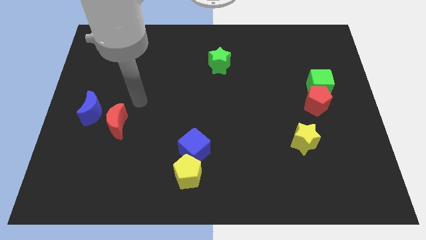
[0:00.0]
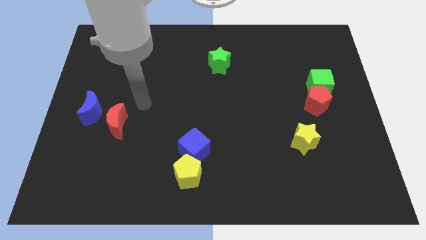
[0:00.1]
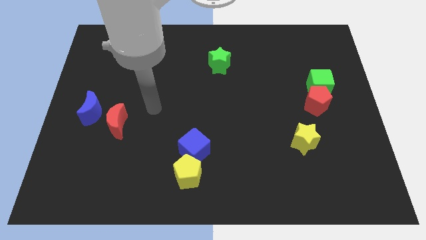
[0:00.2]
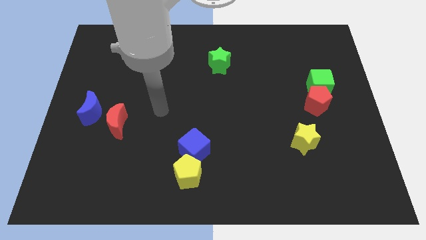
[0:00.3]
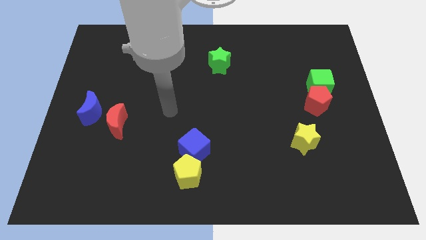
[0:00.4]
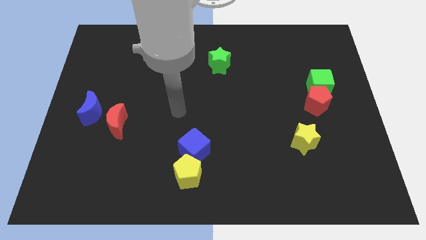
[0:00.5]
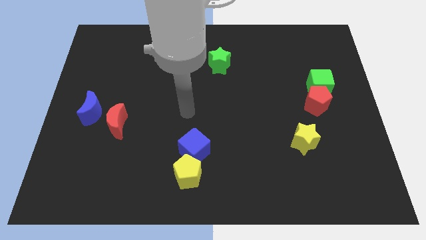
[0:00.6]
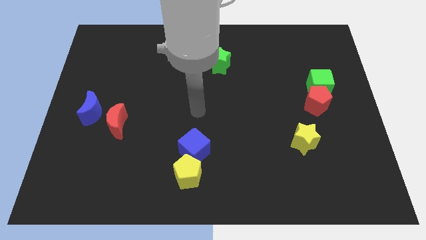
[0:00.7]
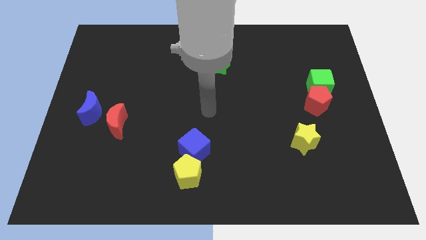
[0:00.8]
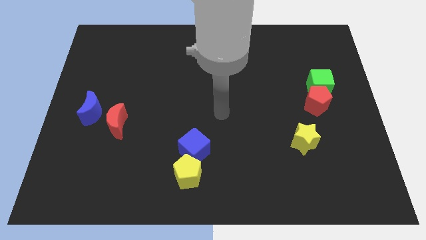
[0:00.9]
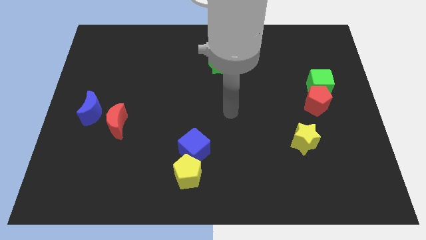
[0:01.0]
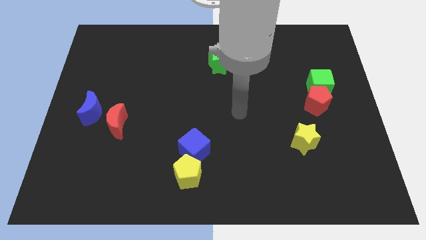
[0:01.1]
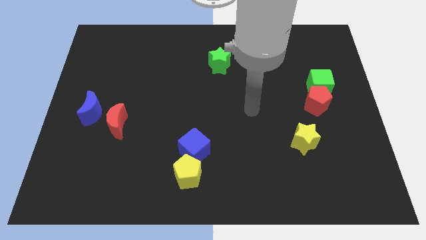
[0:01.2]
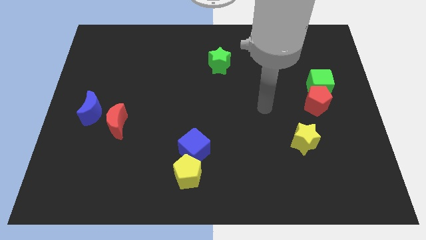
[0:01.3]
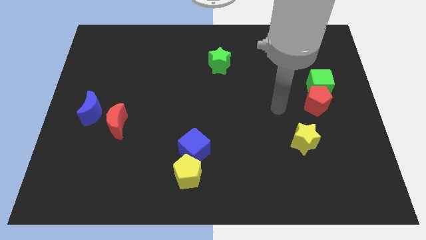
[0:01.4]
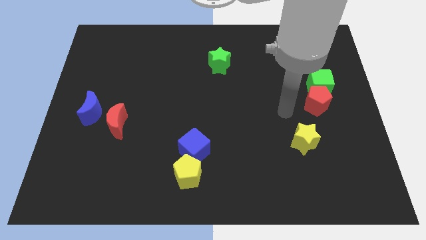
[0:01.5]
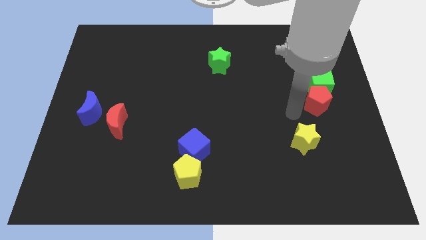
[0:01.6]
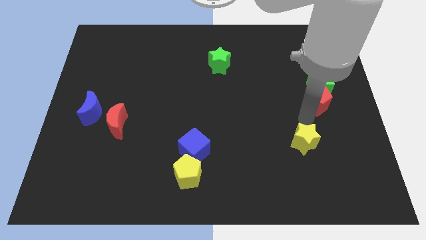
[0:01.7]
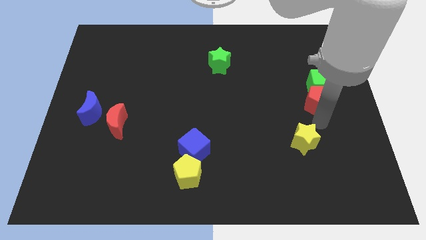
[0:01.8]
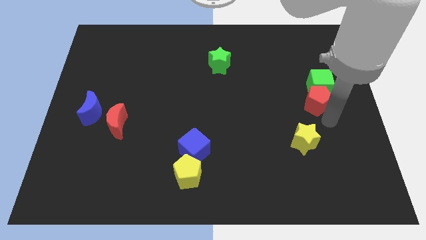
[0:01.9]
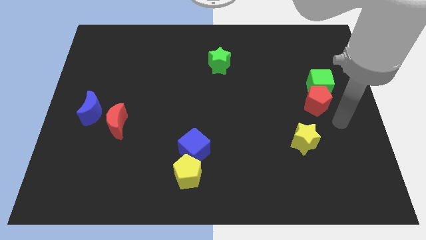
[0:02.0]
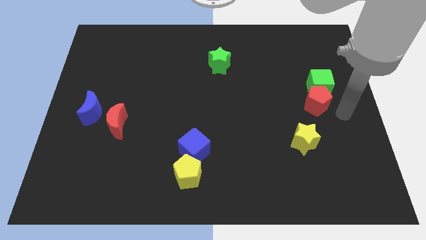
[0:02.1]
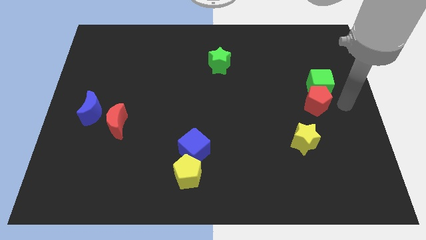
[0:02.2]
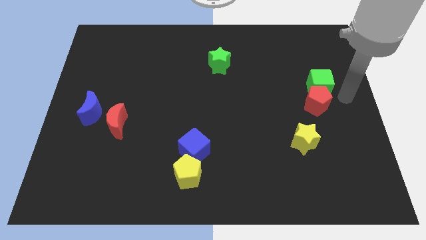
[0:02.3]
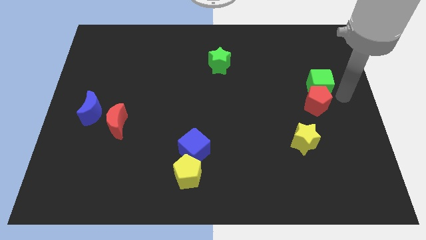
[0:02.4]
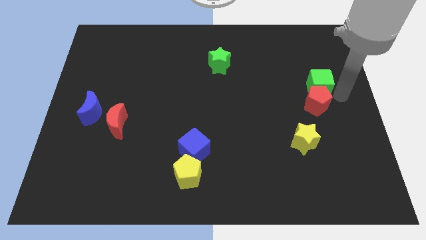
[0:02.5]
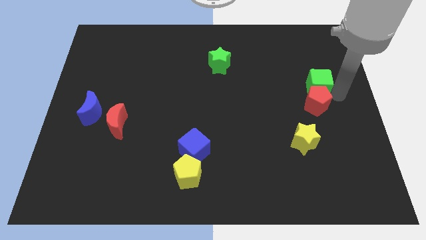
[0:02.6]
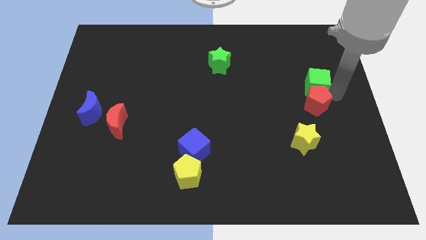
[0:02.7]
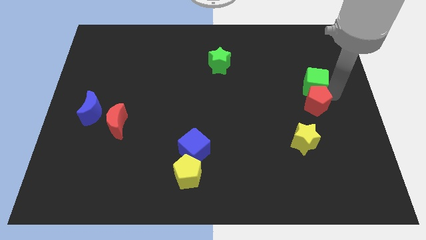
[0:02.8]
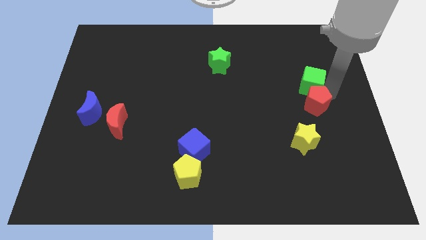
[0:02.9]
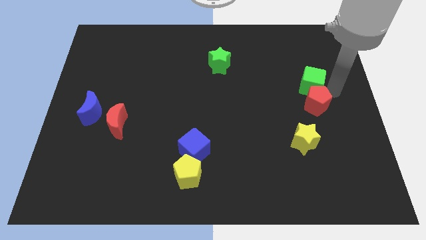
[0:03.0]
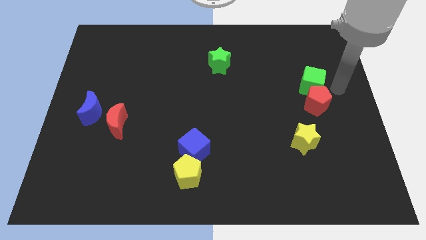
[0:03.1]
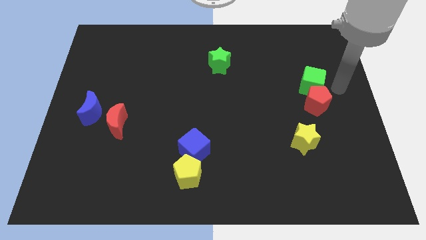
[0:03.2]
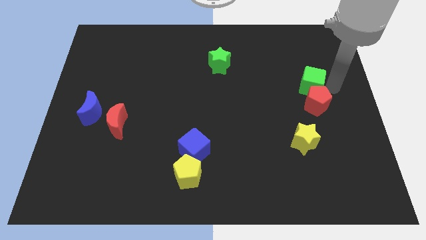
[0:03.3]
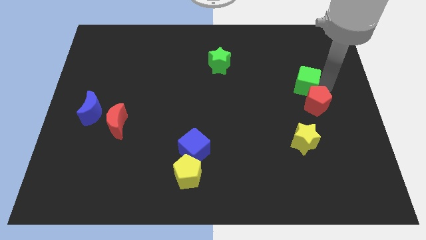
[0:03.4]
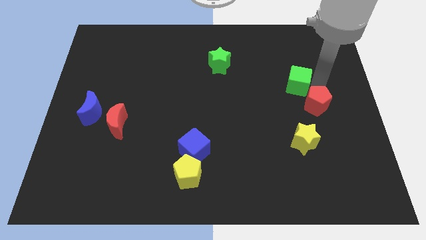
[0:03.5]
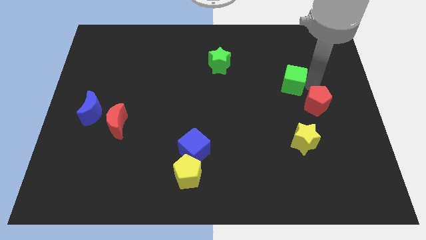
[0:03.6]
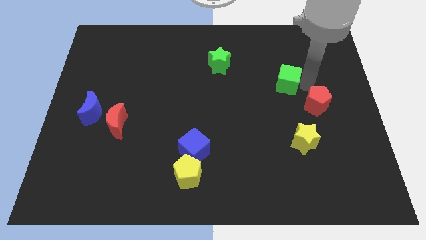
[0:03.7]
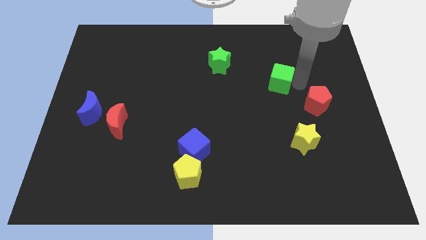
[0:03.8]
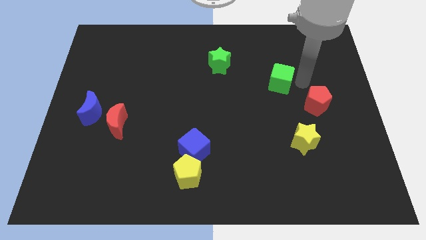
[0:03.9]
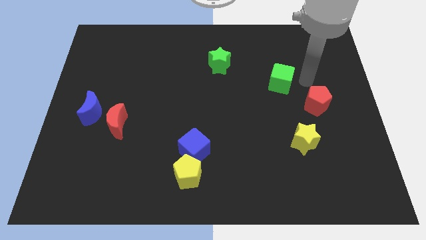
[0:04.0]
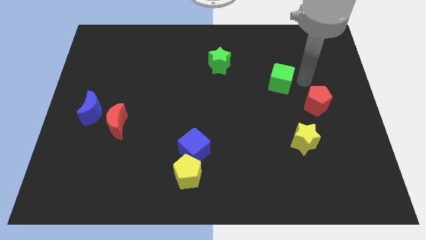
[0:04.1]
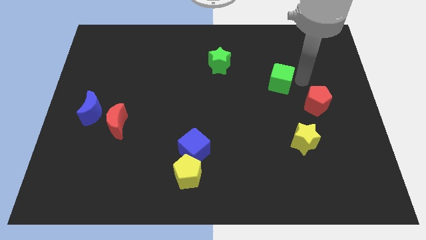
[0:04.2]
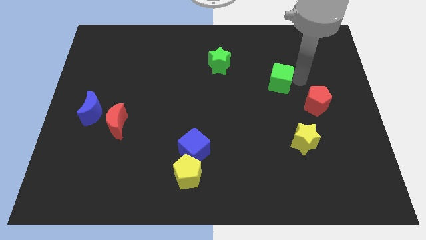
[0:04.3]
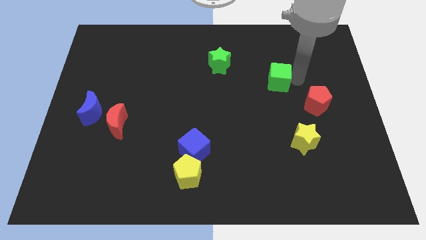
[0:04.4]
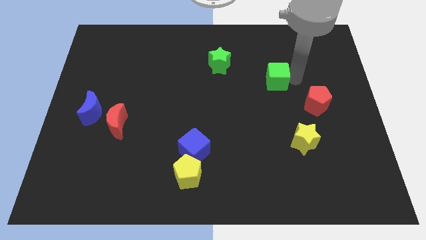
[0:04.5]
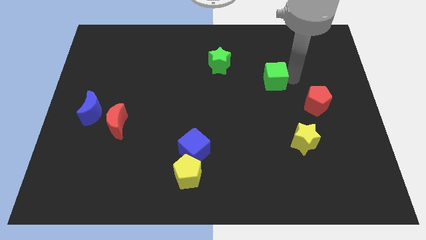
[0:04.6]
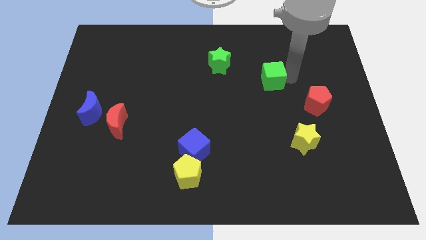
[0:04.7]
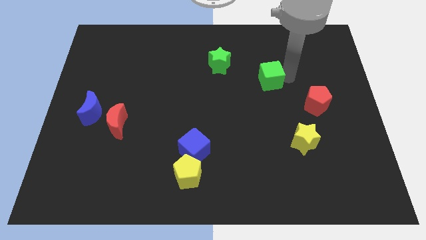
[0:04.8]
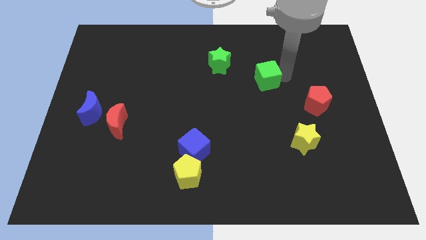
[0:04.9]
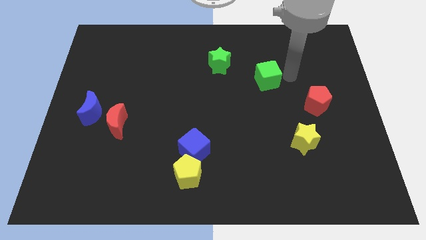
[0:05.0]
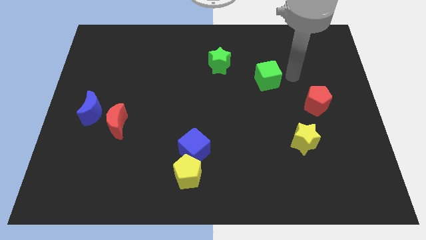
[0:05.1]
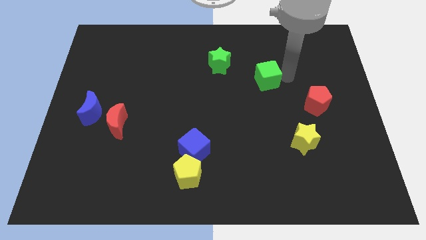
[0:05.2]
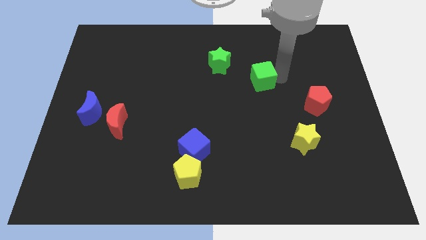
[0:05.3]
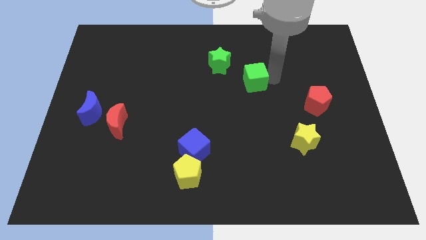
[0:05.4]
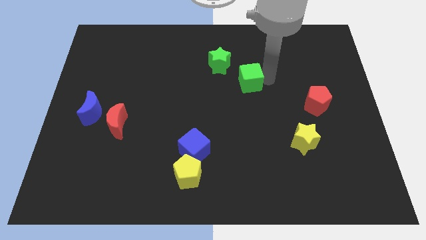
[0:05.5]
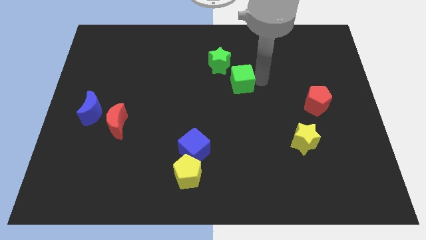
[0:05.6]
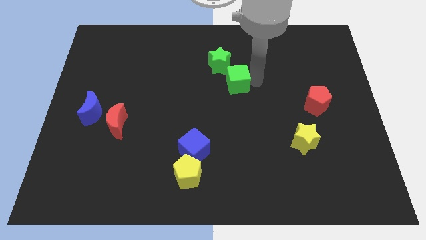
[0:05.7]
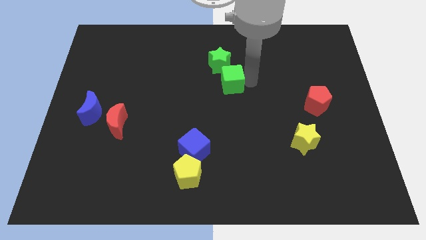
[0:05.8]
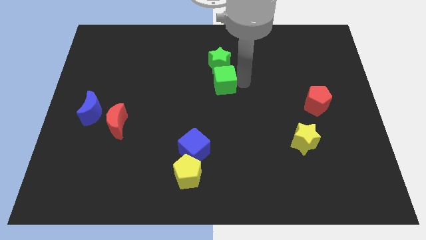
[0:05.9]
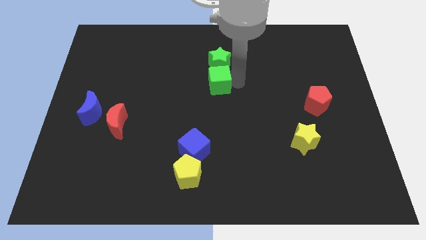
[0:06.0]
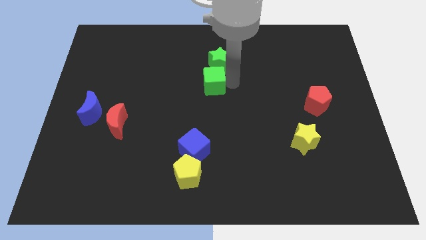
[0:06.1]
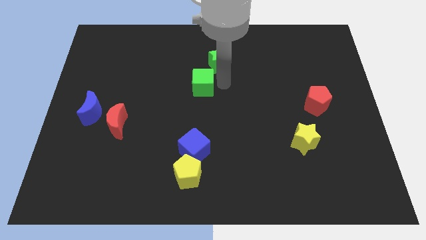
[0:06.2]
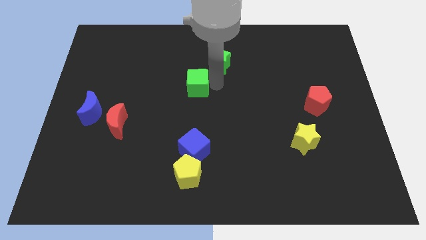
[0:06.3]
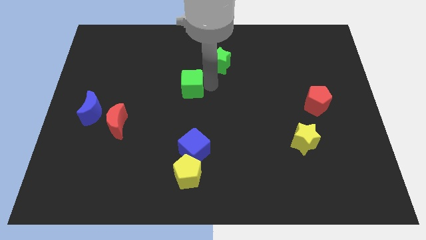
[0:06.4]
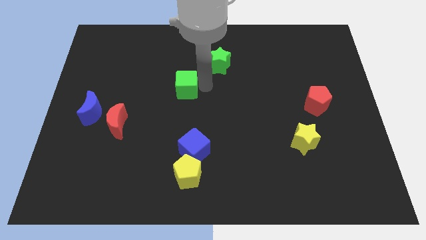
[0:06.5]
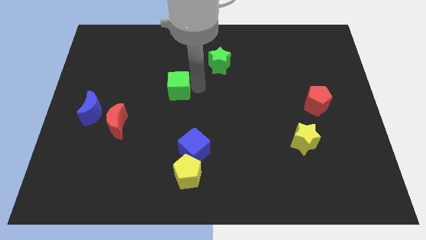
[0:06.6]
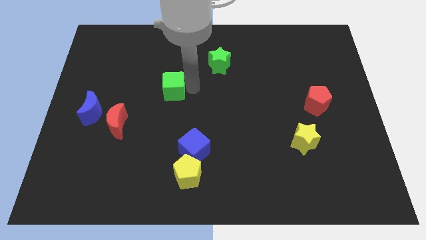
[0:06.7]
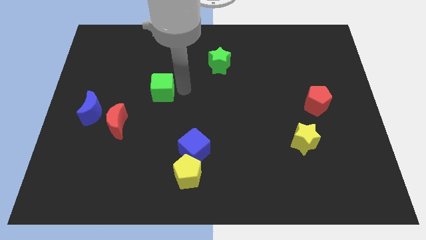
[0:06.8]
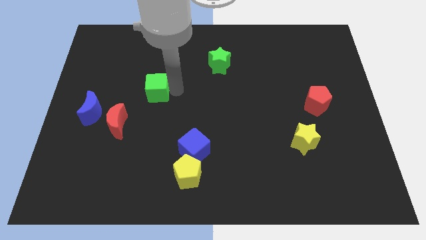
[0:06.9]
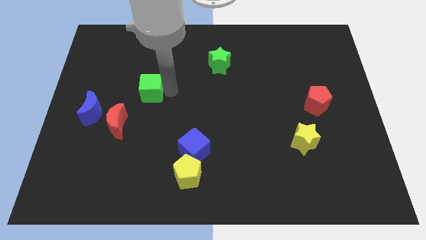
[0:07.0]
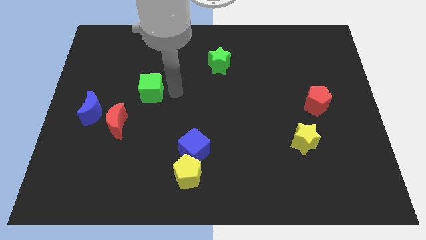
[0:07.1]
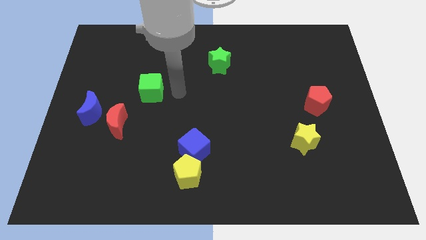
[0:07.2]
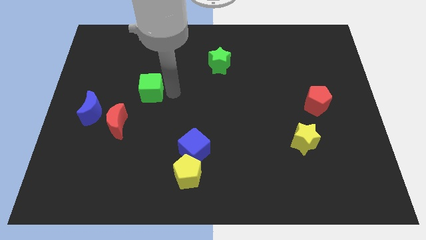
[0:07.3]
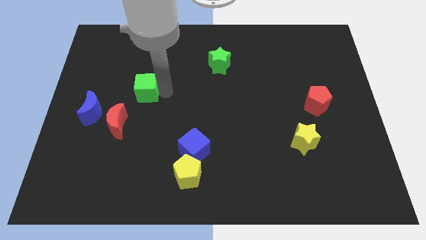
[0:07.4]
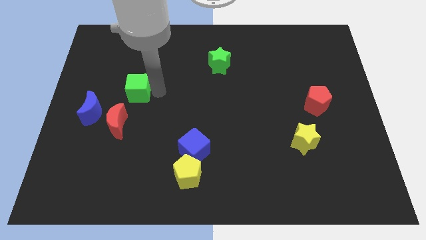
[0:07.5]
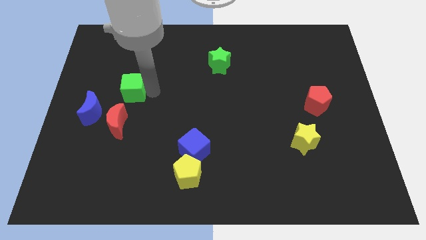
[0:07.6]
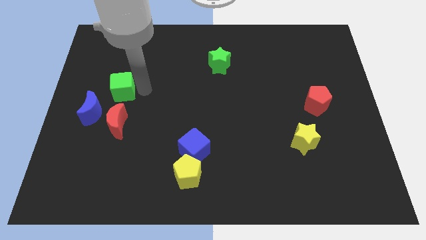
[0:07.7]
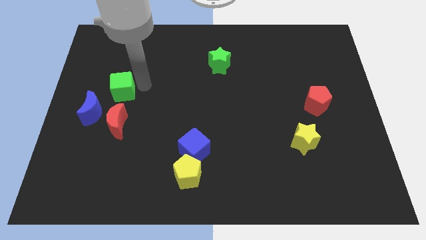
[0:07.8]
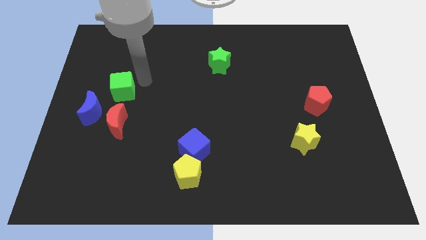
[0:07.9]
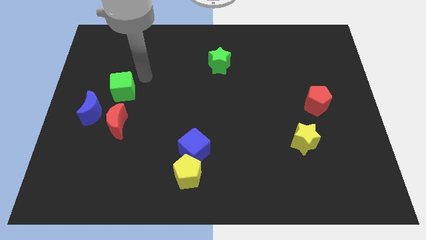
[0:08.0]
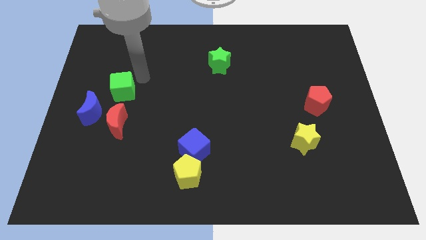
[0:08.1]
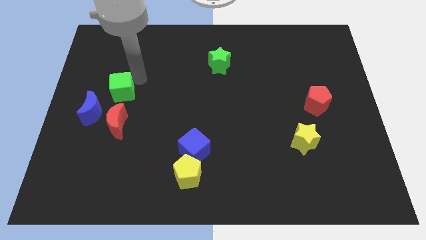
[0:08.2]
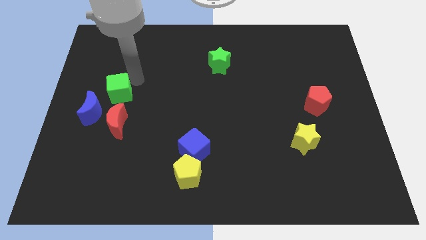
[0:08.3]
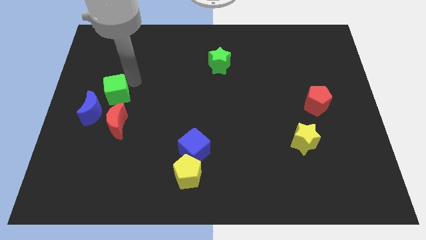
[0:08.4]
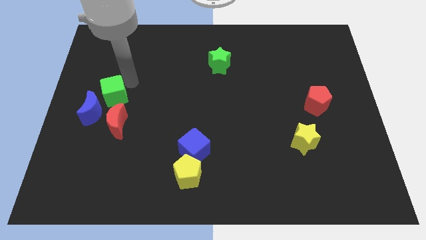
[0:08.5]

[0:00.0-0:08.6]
move the green cube diagonally up and to the left of the red moon
